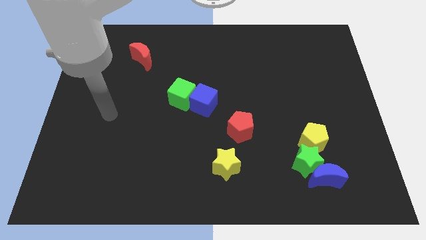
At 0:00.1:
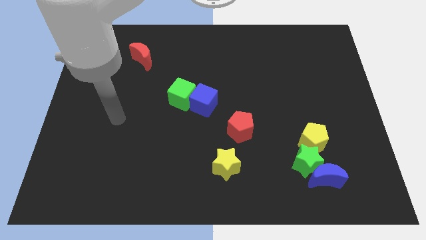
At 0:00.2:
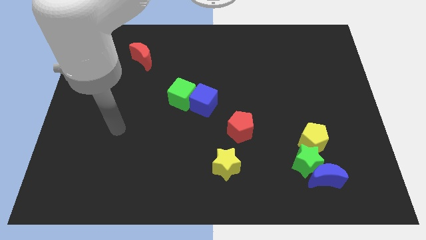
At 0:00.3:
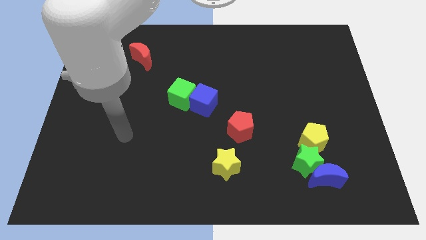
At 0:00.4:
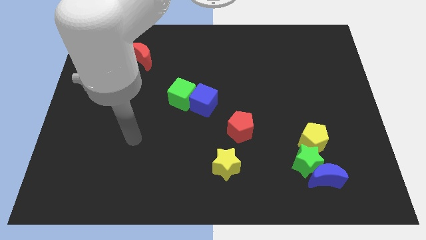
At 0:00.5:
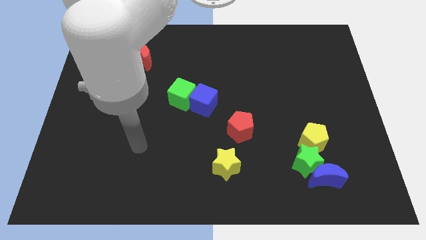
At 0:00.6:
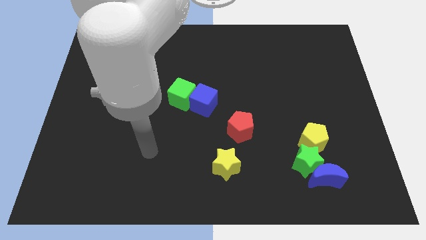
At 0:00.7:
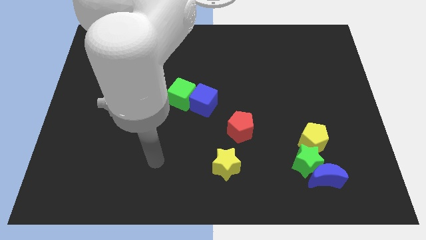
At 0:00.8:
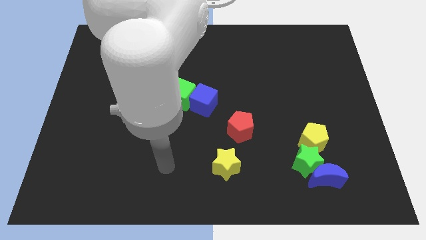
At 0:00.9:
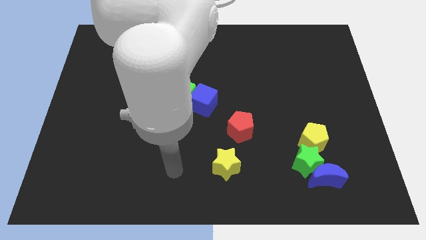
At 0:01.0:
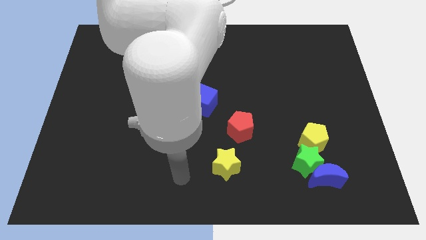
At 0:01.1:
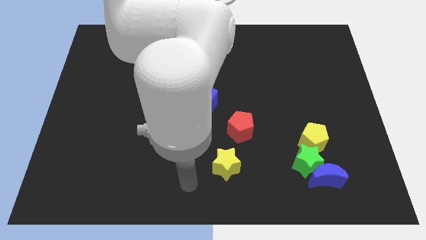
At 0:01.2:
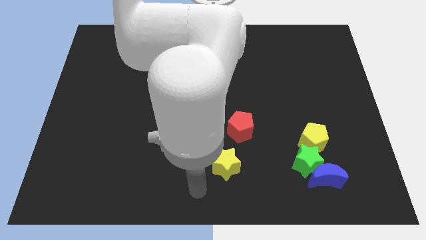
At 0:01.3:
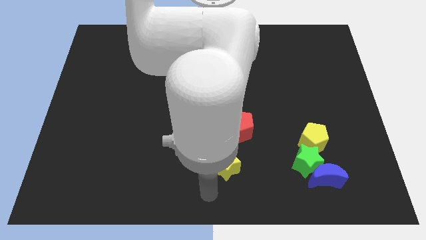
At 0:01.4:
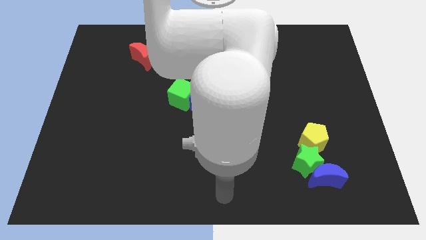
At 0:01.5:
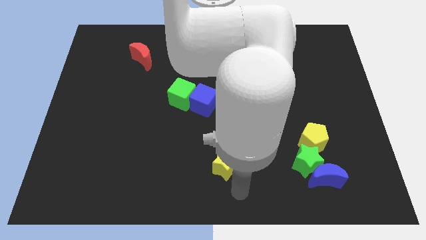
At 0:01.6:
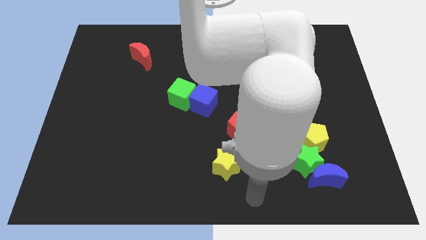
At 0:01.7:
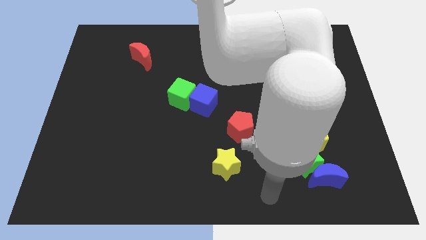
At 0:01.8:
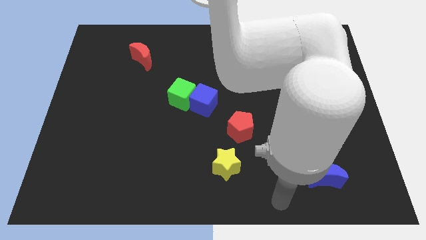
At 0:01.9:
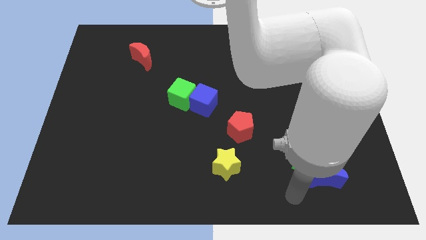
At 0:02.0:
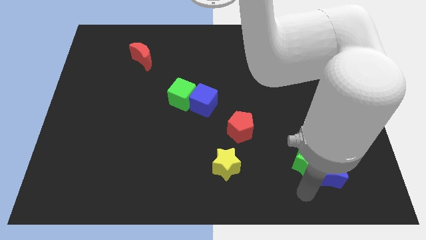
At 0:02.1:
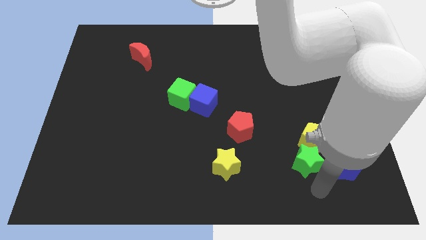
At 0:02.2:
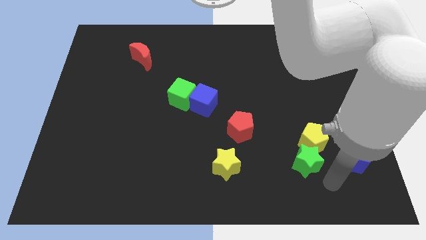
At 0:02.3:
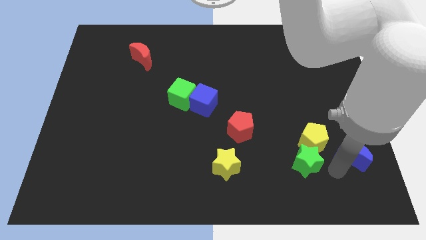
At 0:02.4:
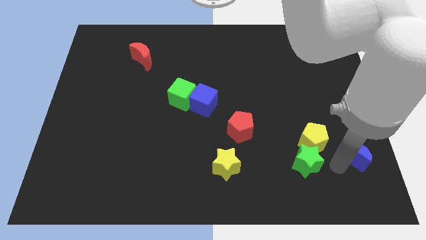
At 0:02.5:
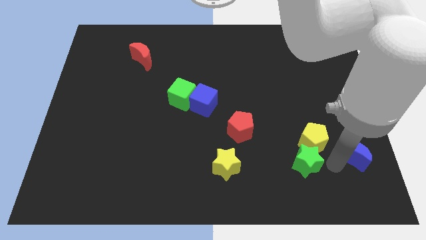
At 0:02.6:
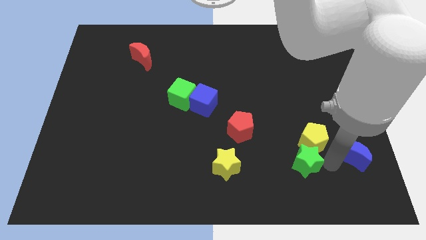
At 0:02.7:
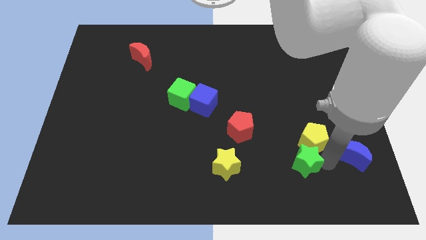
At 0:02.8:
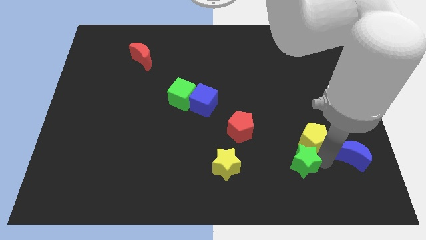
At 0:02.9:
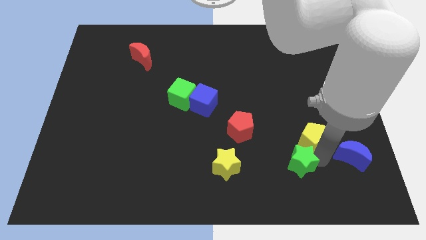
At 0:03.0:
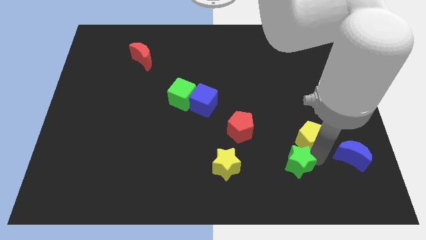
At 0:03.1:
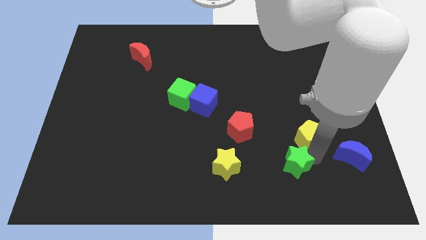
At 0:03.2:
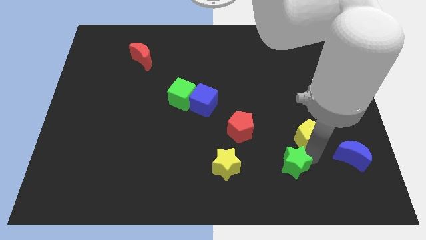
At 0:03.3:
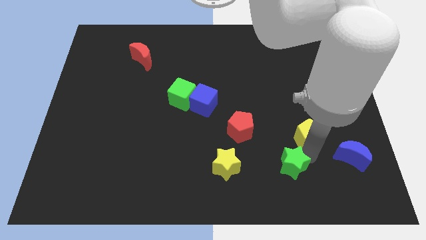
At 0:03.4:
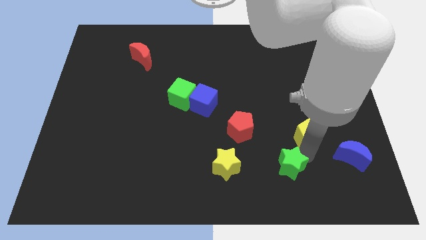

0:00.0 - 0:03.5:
move the green star away from the blue moon and yellow pentagon

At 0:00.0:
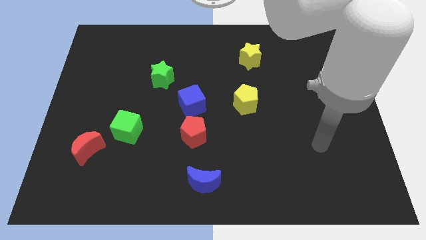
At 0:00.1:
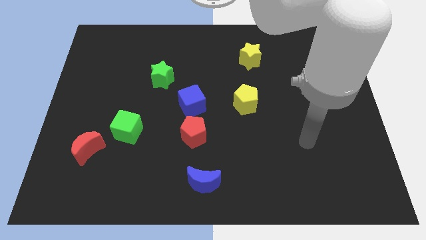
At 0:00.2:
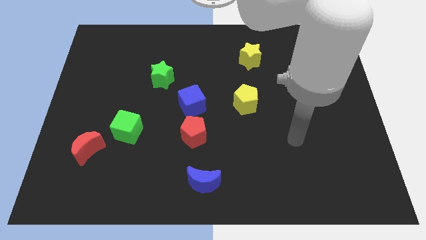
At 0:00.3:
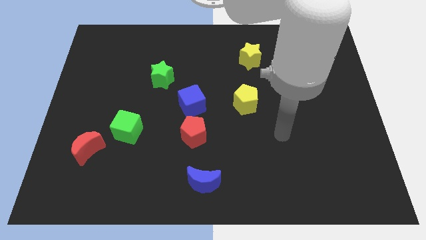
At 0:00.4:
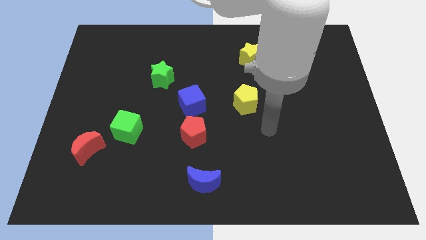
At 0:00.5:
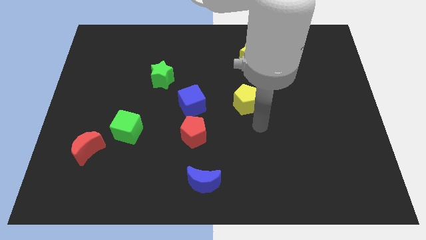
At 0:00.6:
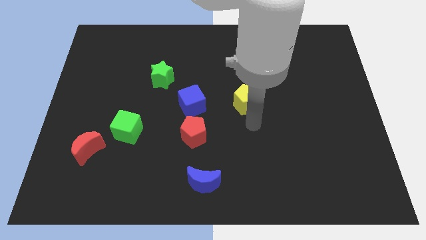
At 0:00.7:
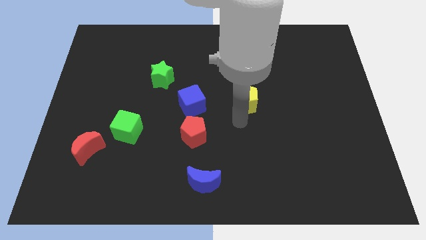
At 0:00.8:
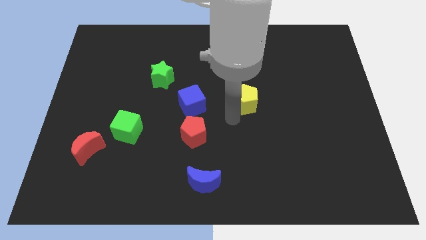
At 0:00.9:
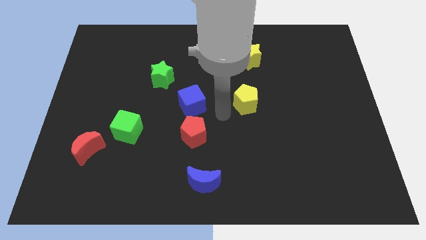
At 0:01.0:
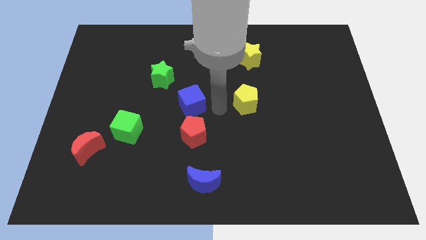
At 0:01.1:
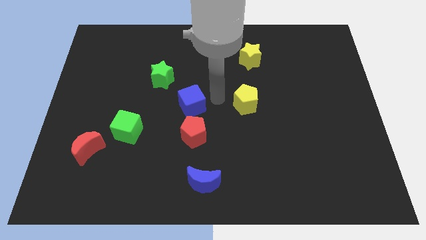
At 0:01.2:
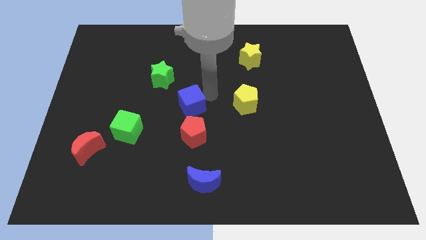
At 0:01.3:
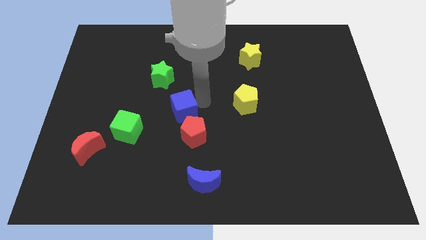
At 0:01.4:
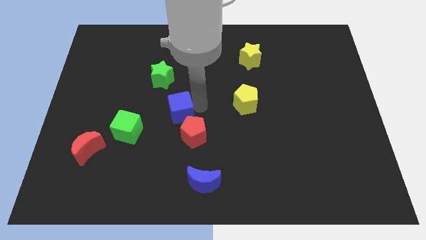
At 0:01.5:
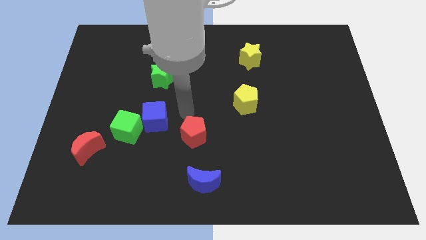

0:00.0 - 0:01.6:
move the red pentagon away from the blue cube

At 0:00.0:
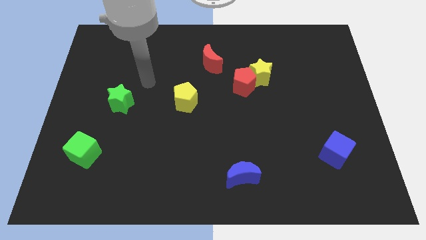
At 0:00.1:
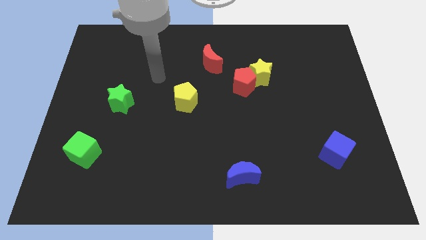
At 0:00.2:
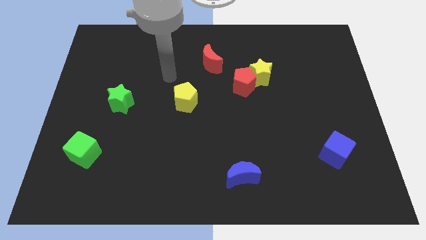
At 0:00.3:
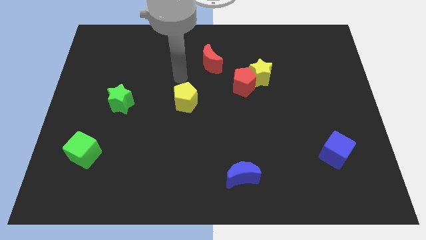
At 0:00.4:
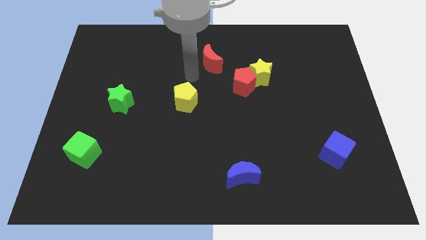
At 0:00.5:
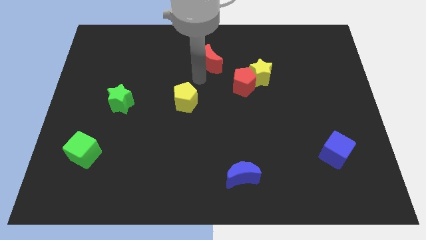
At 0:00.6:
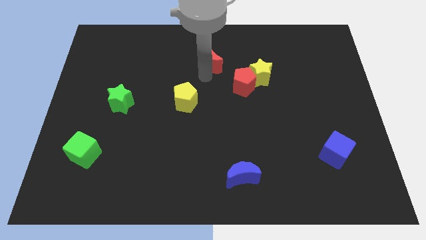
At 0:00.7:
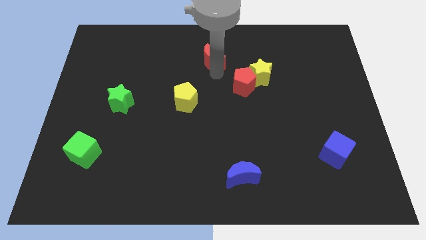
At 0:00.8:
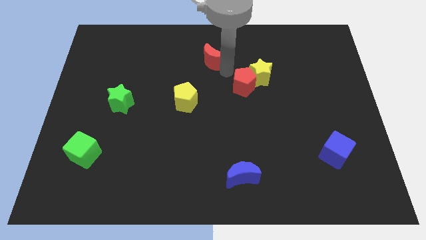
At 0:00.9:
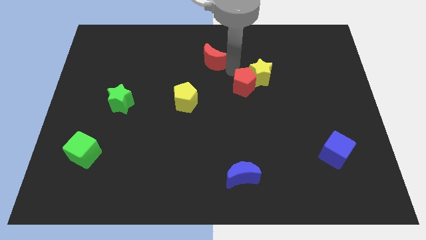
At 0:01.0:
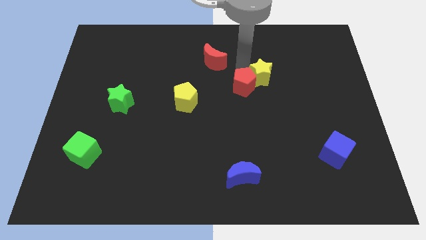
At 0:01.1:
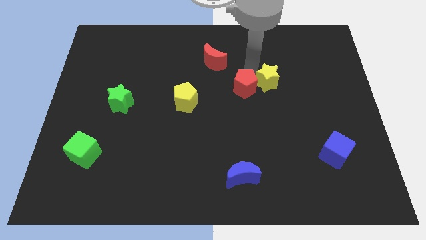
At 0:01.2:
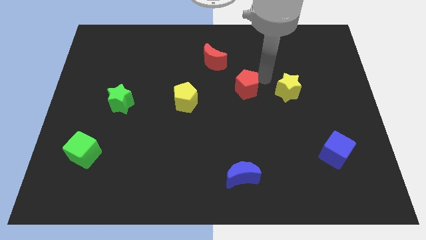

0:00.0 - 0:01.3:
pull the red pentagon apart from the yellow star

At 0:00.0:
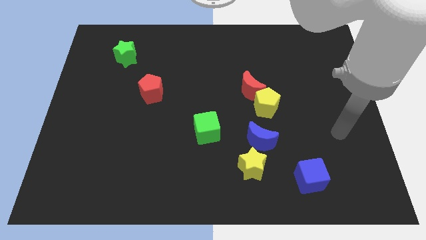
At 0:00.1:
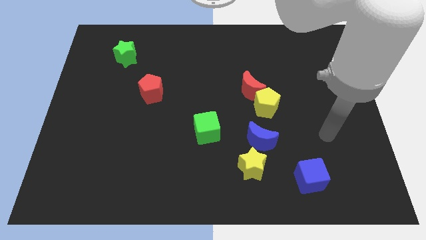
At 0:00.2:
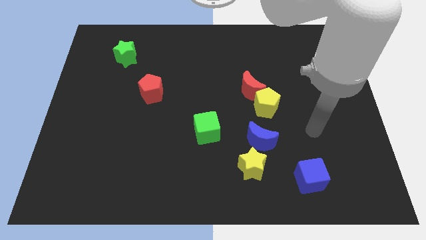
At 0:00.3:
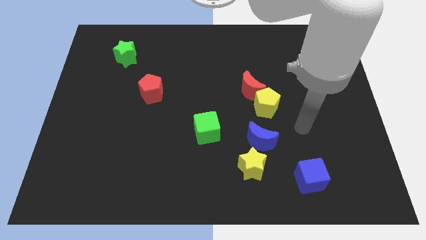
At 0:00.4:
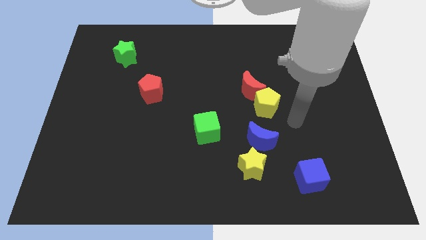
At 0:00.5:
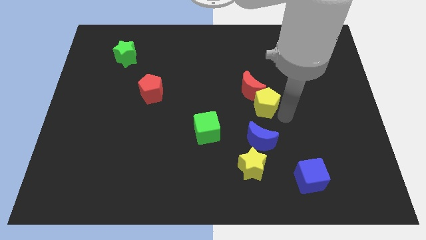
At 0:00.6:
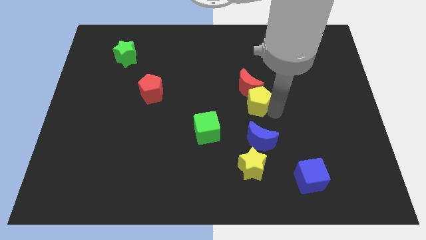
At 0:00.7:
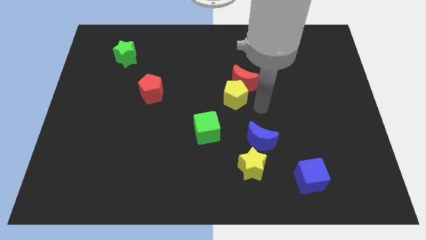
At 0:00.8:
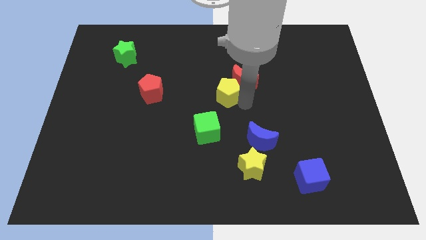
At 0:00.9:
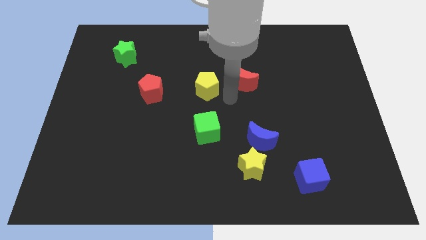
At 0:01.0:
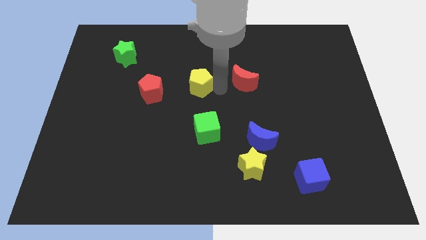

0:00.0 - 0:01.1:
move the red moon away from the yellow pentagon

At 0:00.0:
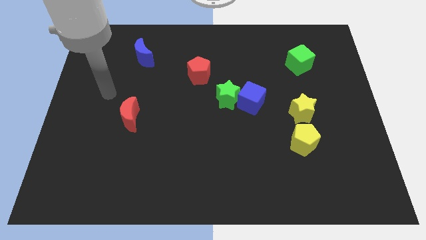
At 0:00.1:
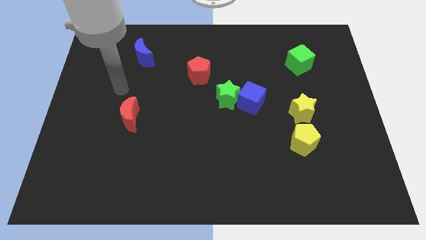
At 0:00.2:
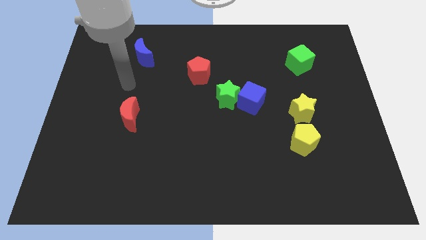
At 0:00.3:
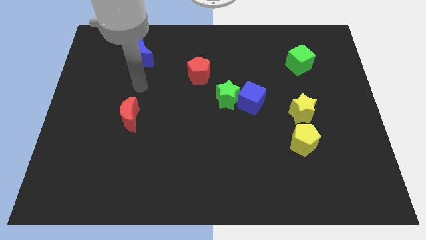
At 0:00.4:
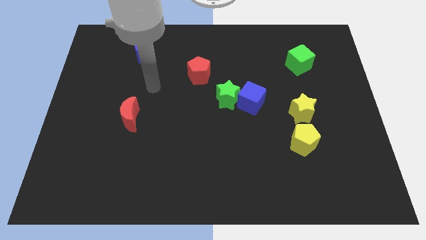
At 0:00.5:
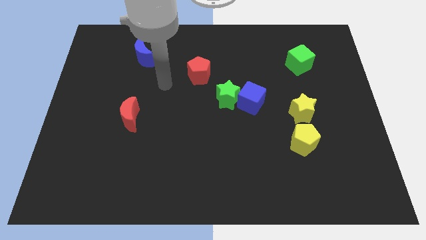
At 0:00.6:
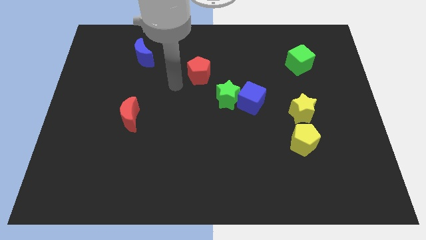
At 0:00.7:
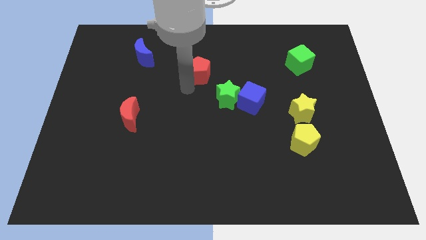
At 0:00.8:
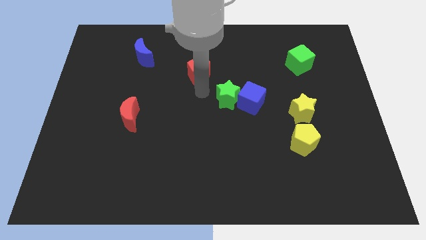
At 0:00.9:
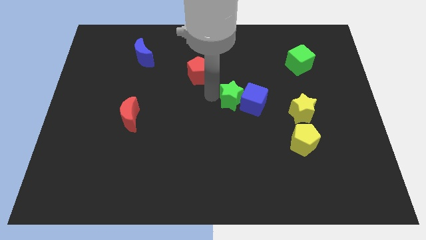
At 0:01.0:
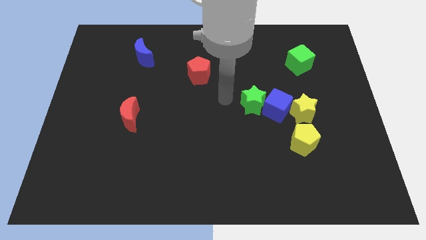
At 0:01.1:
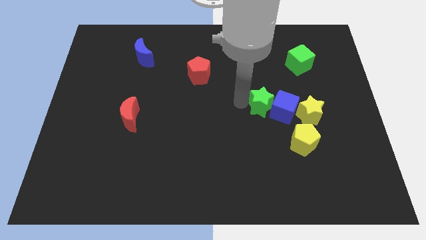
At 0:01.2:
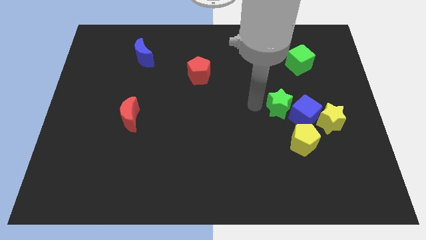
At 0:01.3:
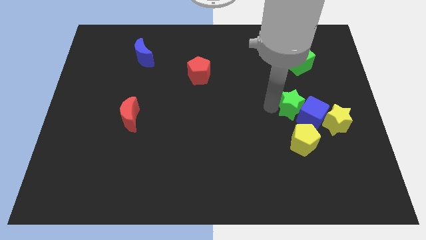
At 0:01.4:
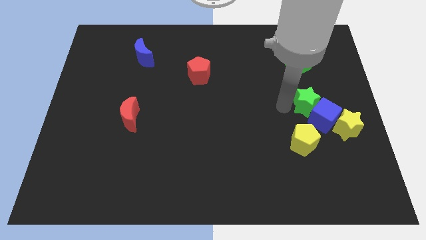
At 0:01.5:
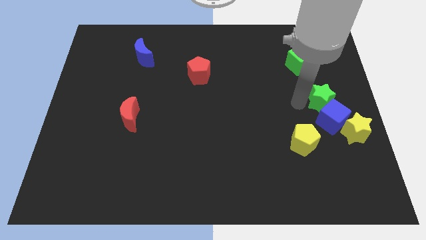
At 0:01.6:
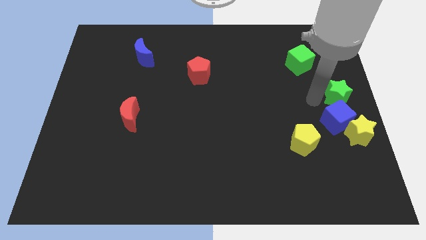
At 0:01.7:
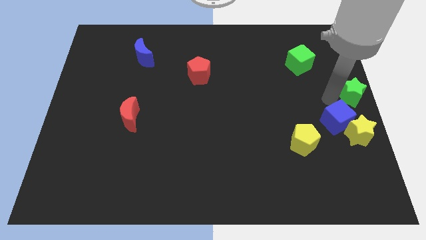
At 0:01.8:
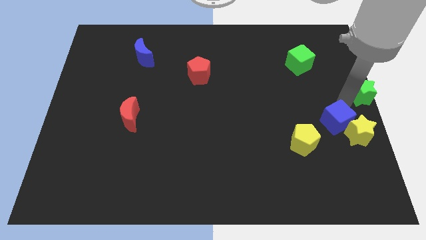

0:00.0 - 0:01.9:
move the blue cube away from the green star

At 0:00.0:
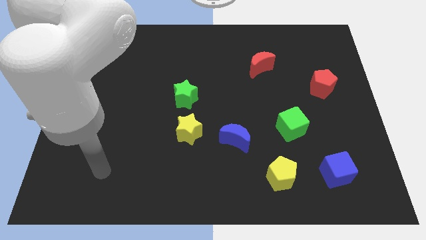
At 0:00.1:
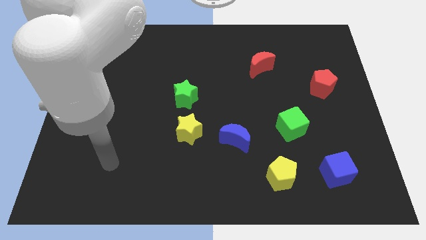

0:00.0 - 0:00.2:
pull the green star apart from the yellow star
